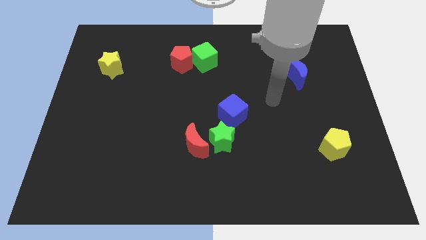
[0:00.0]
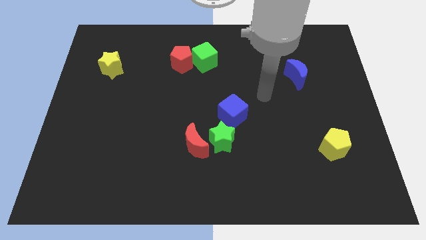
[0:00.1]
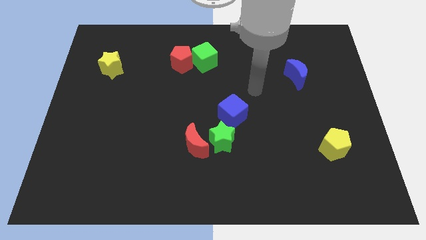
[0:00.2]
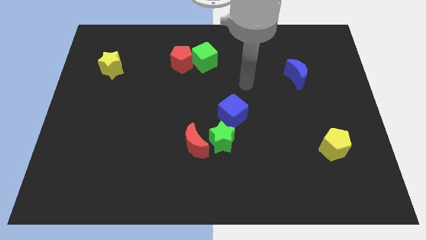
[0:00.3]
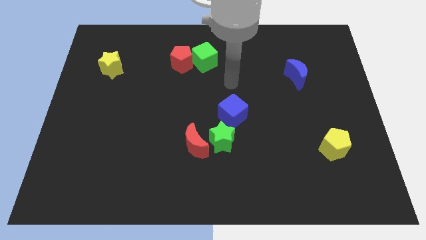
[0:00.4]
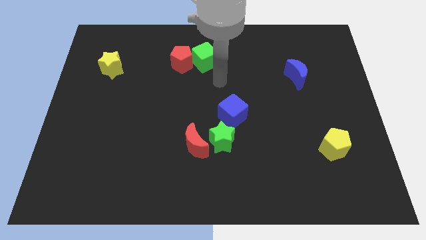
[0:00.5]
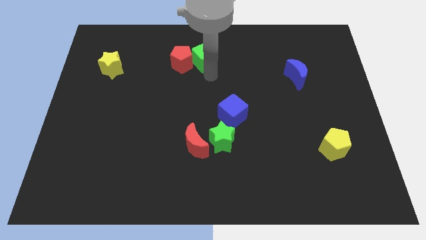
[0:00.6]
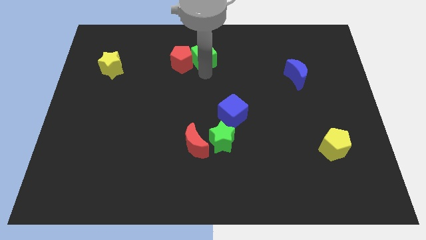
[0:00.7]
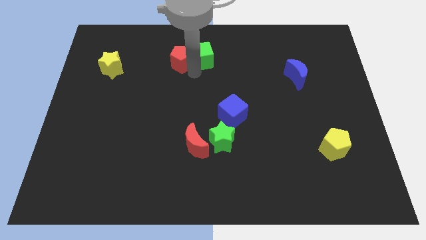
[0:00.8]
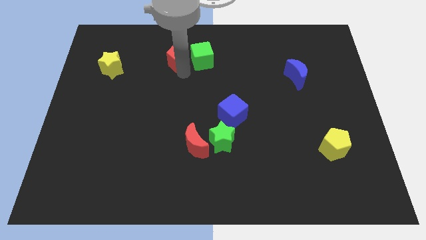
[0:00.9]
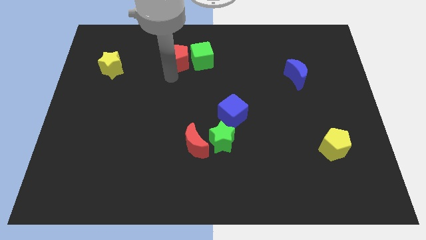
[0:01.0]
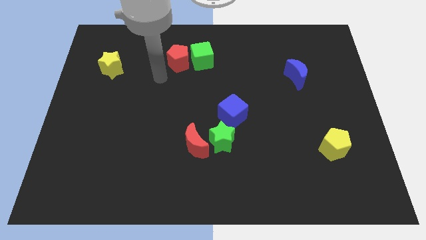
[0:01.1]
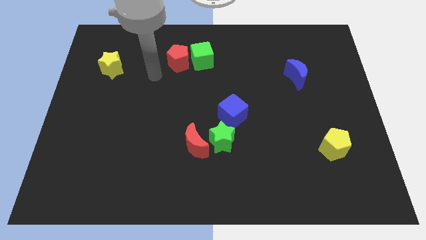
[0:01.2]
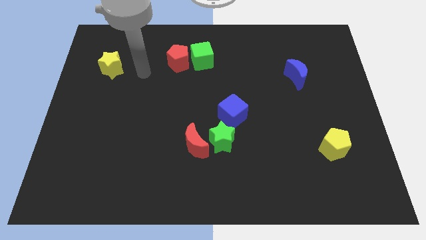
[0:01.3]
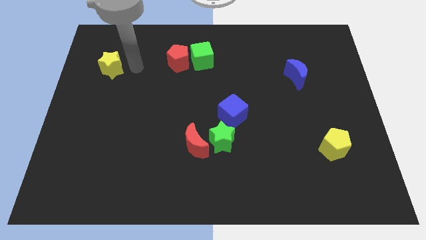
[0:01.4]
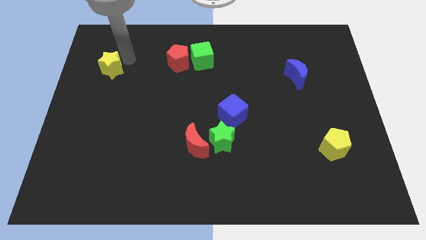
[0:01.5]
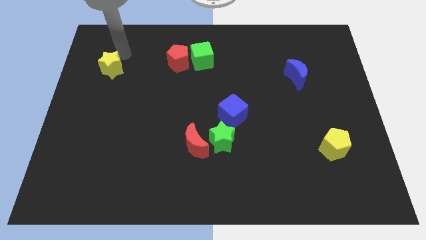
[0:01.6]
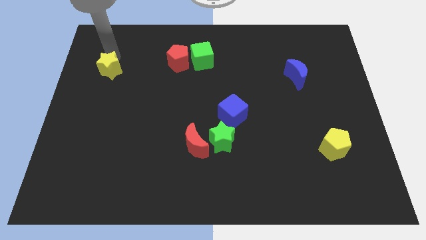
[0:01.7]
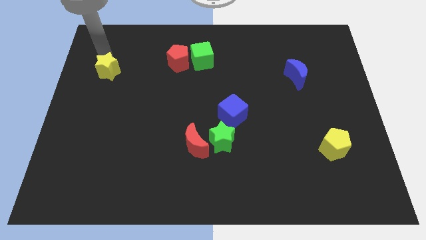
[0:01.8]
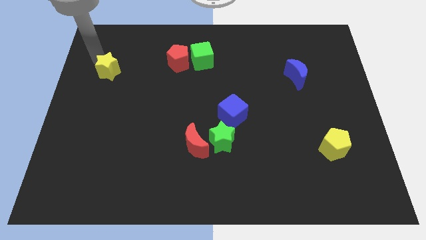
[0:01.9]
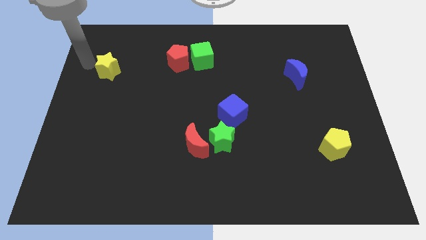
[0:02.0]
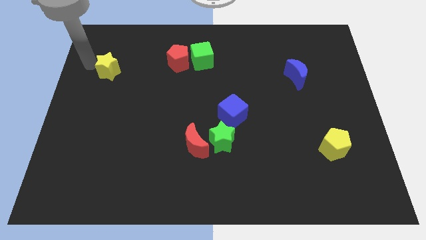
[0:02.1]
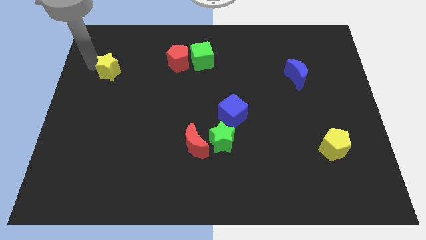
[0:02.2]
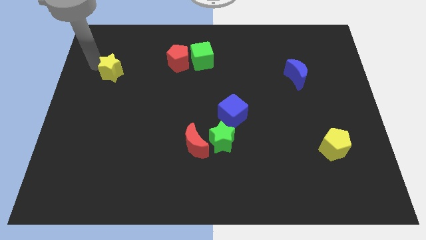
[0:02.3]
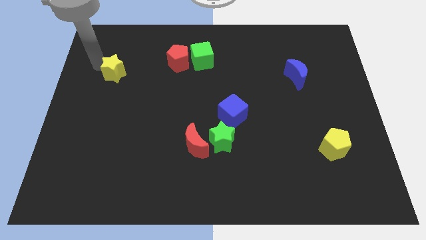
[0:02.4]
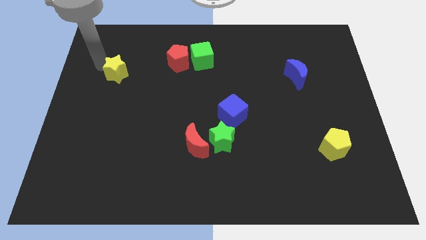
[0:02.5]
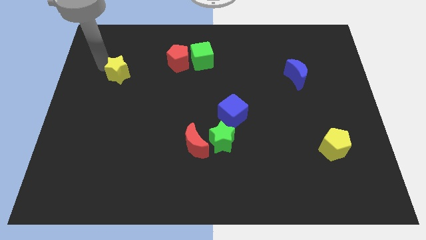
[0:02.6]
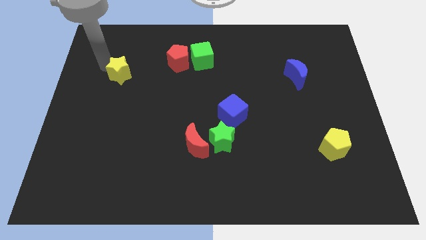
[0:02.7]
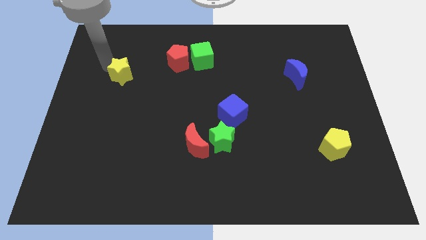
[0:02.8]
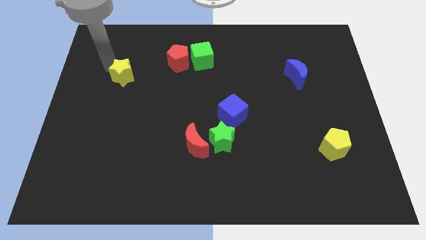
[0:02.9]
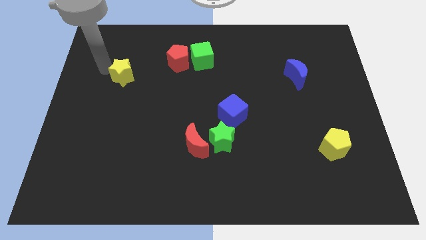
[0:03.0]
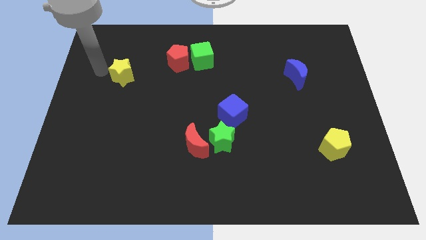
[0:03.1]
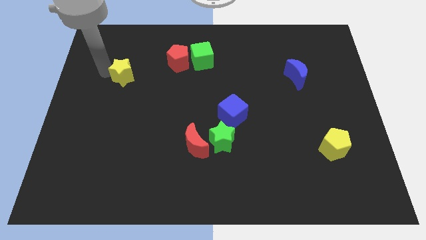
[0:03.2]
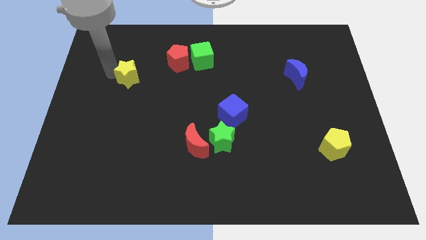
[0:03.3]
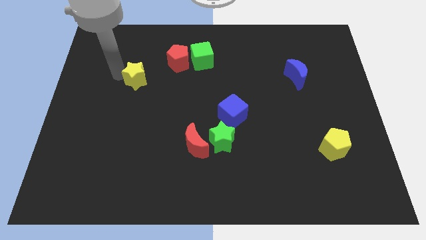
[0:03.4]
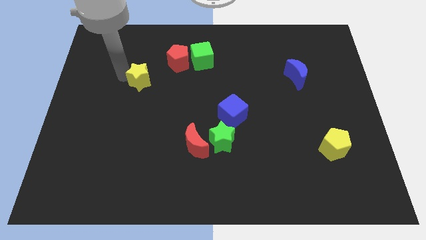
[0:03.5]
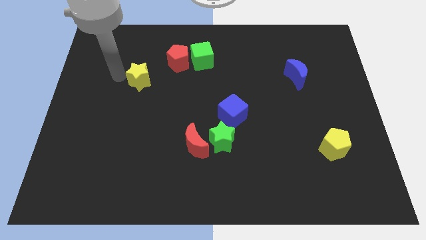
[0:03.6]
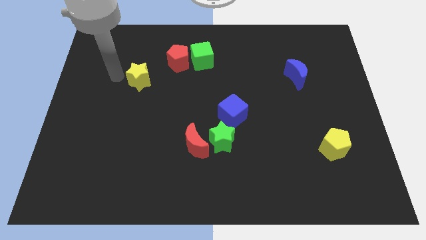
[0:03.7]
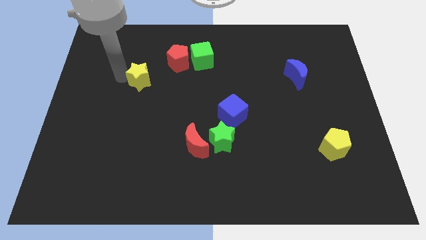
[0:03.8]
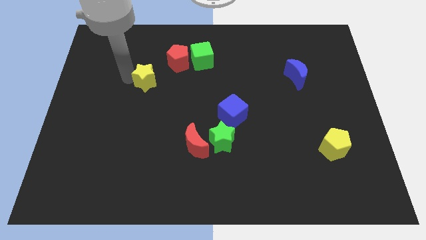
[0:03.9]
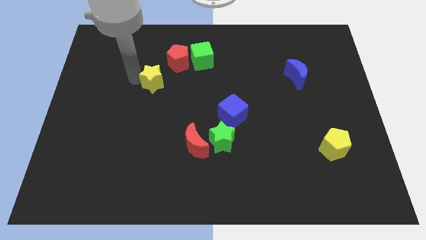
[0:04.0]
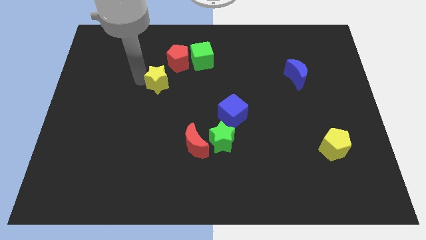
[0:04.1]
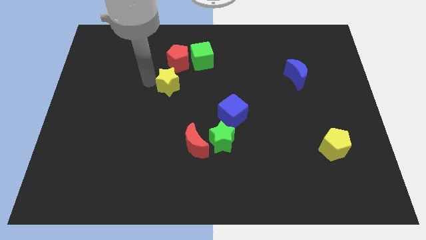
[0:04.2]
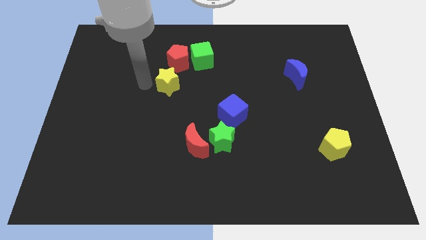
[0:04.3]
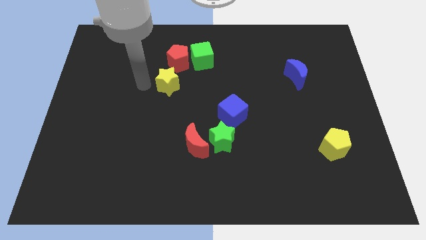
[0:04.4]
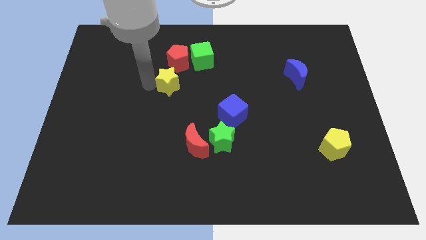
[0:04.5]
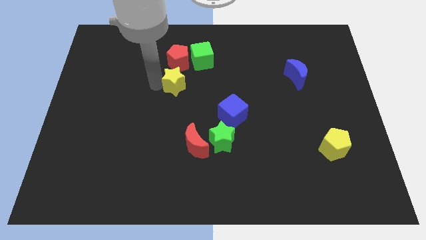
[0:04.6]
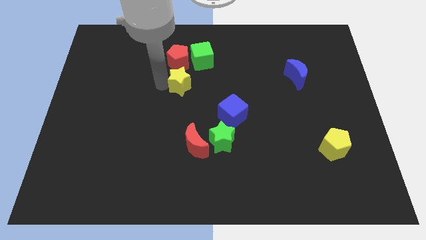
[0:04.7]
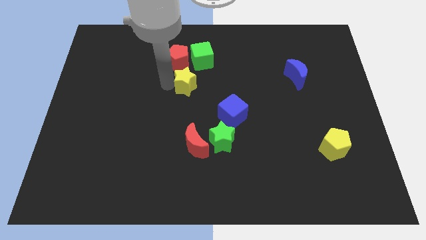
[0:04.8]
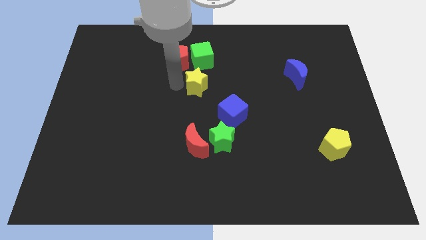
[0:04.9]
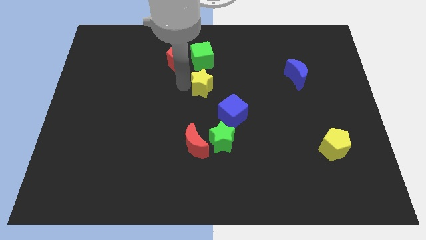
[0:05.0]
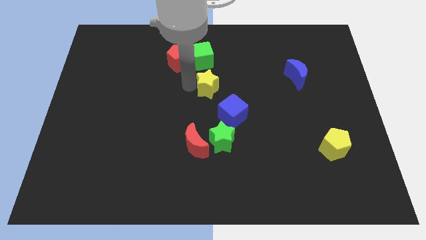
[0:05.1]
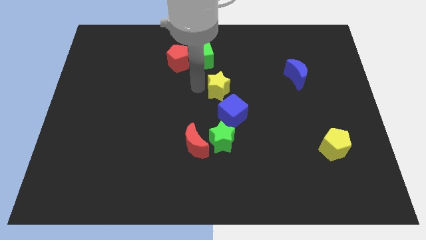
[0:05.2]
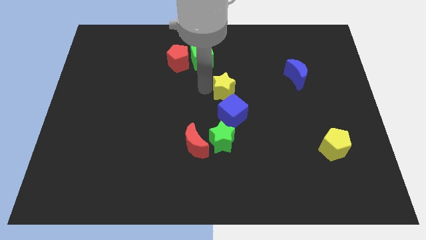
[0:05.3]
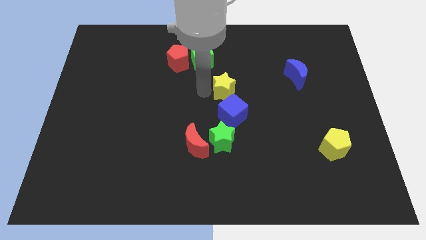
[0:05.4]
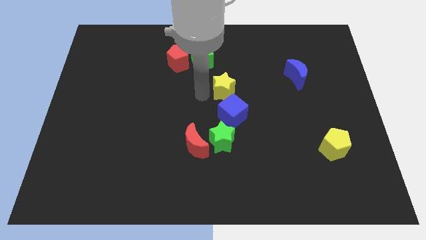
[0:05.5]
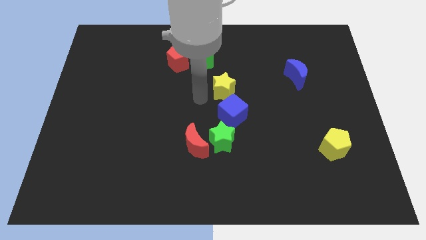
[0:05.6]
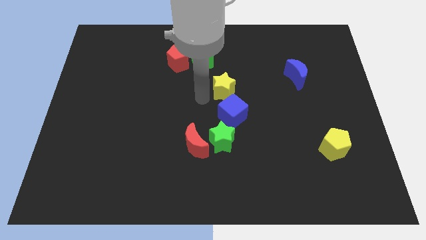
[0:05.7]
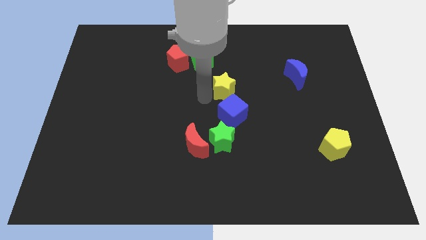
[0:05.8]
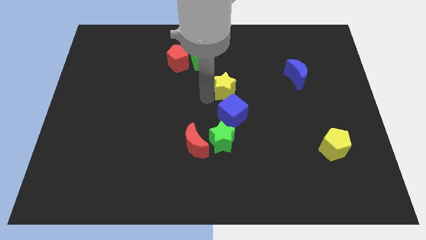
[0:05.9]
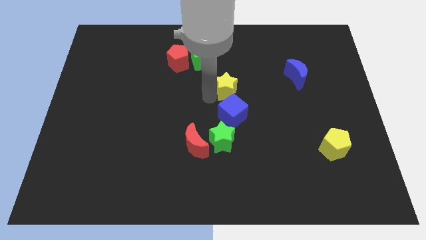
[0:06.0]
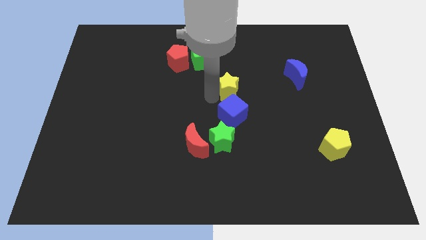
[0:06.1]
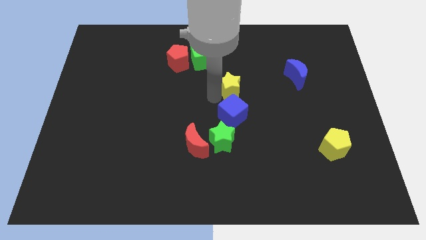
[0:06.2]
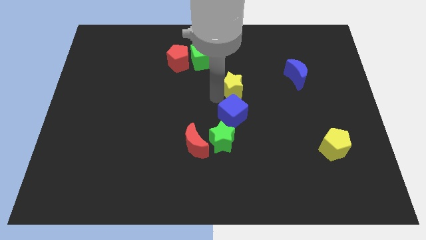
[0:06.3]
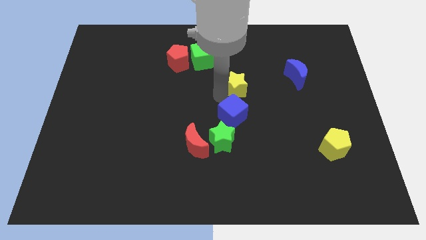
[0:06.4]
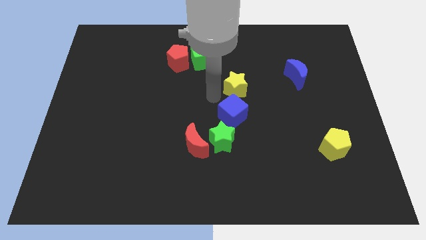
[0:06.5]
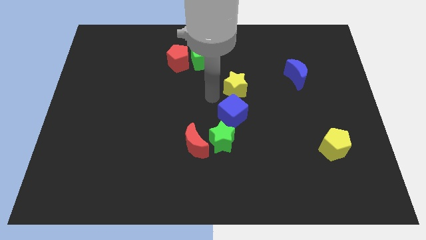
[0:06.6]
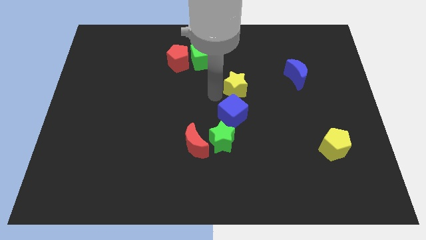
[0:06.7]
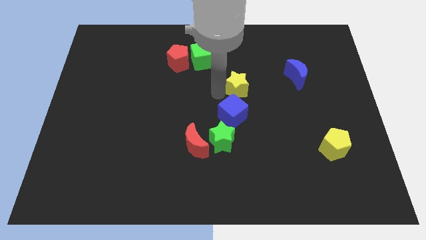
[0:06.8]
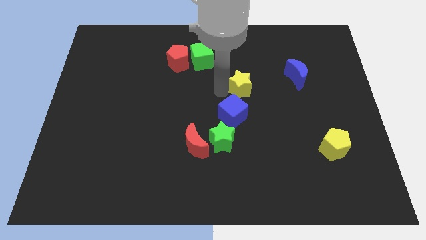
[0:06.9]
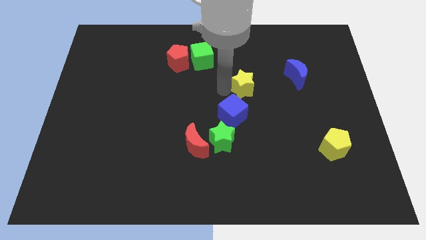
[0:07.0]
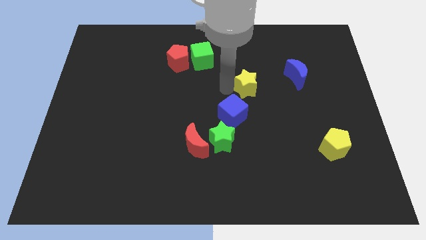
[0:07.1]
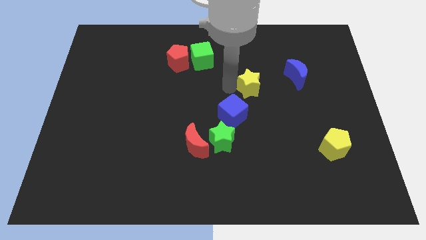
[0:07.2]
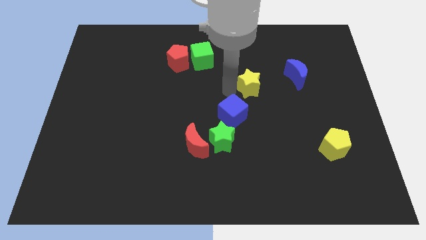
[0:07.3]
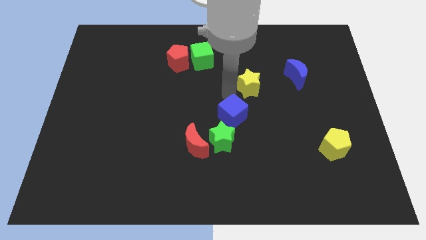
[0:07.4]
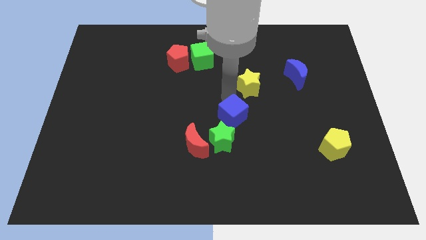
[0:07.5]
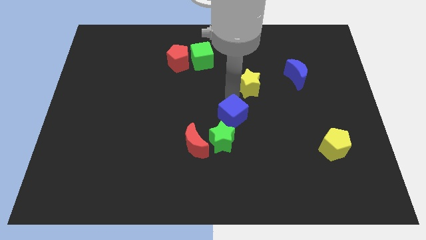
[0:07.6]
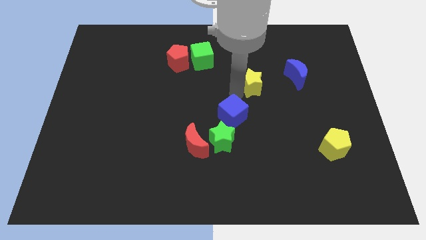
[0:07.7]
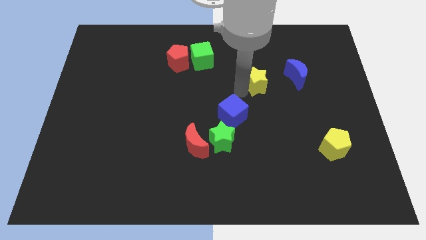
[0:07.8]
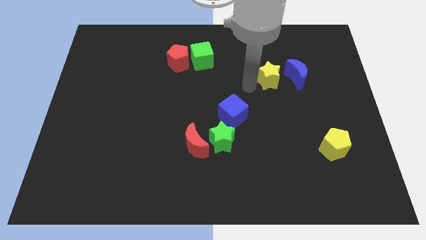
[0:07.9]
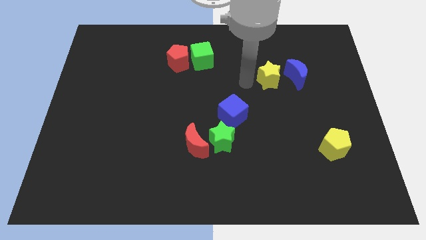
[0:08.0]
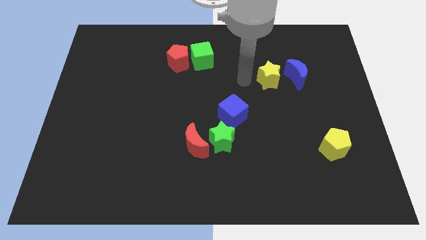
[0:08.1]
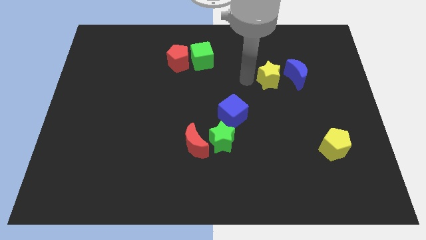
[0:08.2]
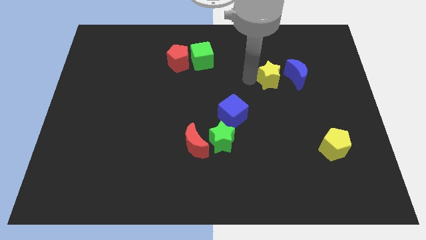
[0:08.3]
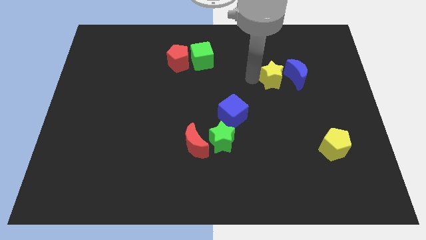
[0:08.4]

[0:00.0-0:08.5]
move the yellow star close to the blue moon
